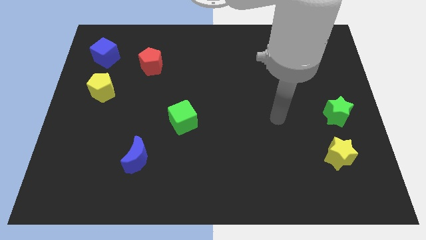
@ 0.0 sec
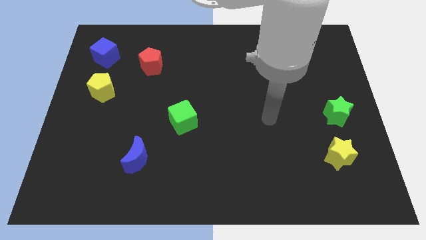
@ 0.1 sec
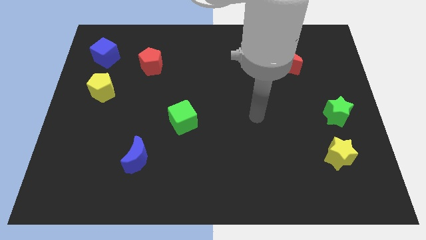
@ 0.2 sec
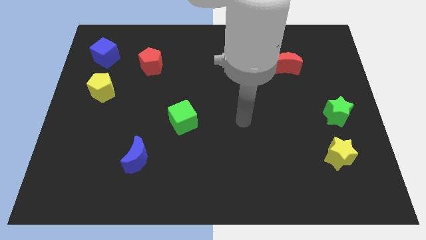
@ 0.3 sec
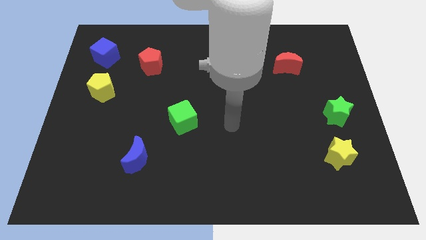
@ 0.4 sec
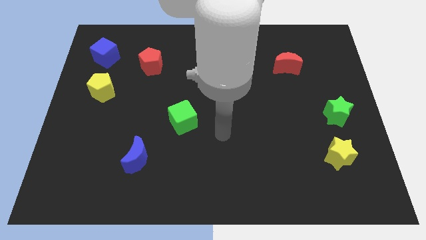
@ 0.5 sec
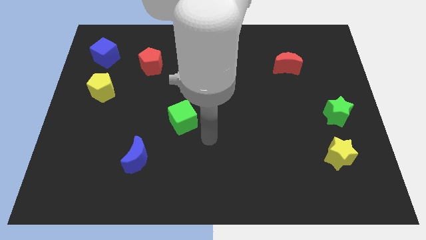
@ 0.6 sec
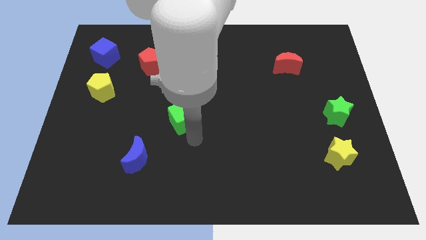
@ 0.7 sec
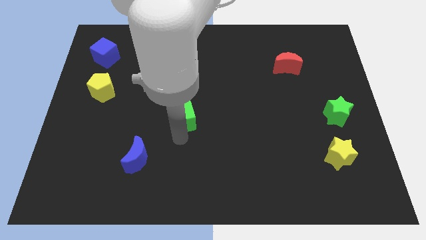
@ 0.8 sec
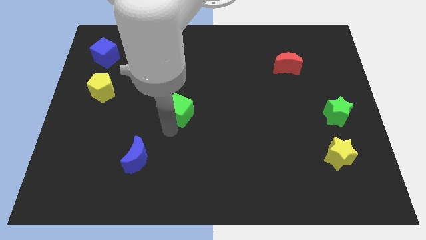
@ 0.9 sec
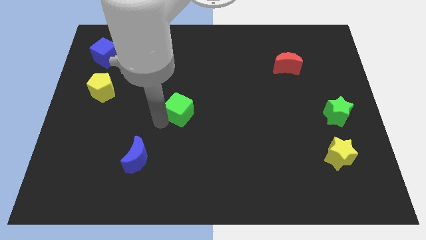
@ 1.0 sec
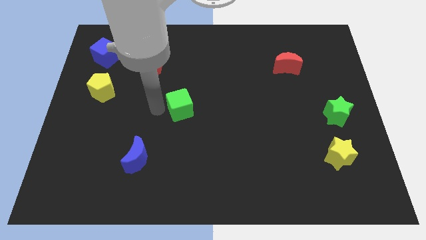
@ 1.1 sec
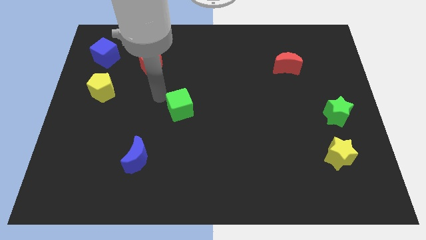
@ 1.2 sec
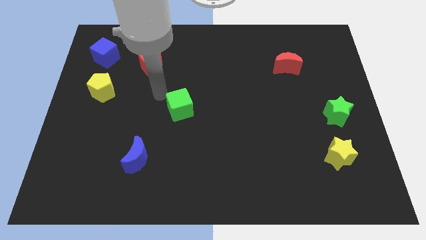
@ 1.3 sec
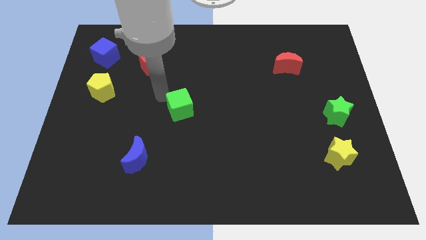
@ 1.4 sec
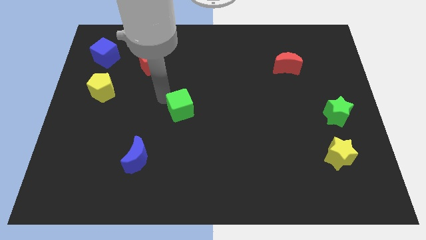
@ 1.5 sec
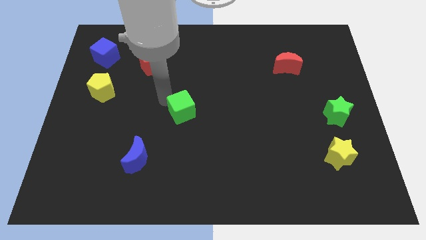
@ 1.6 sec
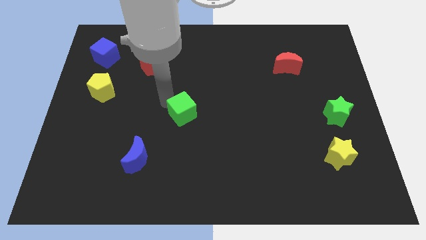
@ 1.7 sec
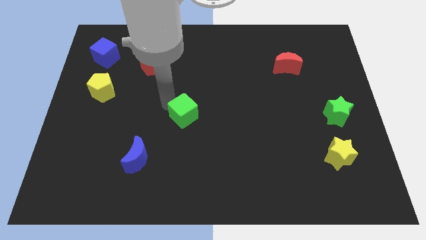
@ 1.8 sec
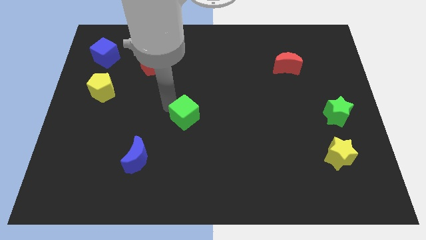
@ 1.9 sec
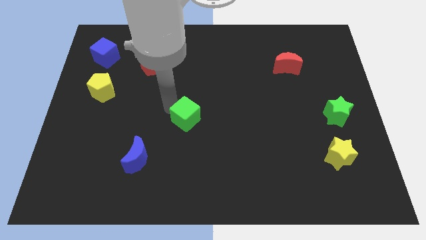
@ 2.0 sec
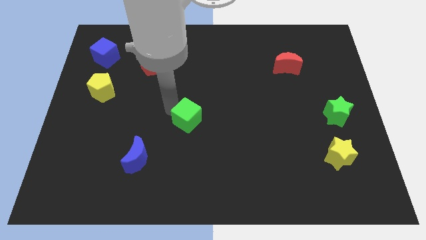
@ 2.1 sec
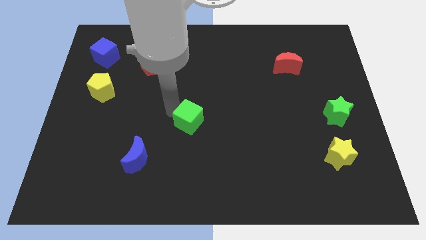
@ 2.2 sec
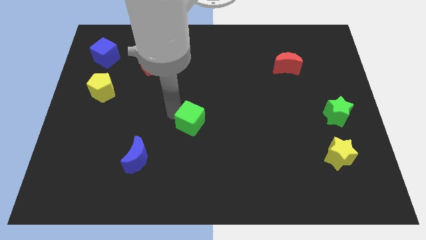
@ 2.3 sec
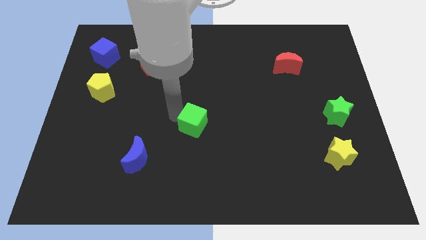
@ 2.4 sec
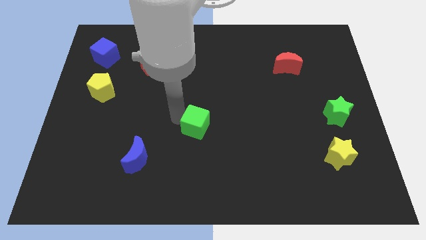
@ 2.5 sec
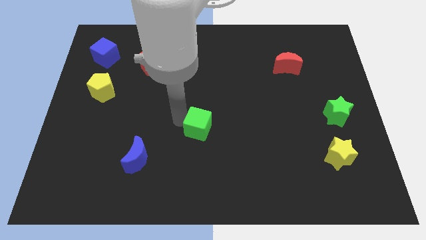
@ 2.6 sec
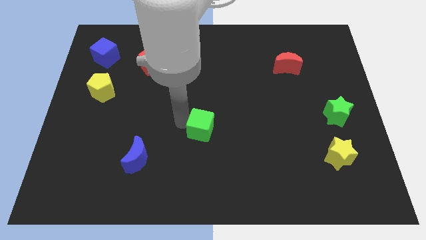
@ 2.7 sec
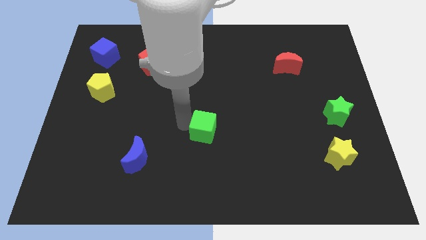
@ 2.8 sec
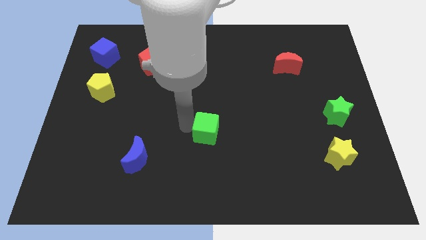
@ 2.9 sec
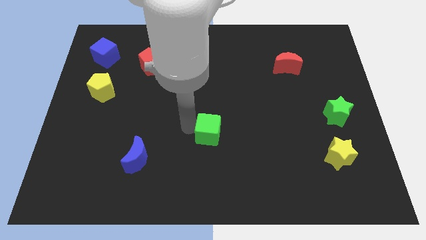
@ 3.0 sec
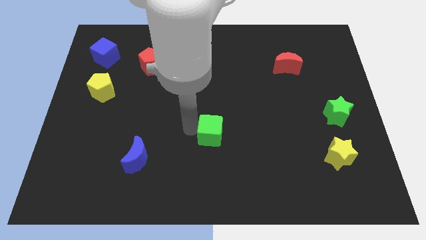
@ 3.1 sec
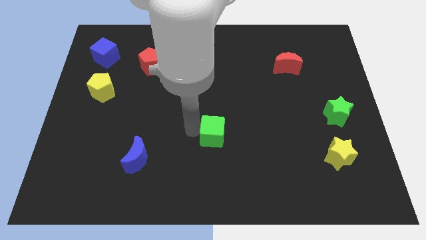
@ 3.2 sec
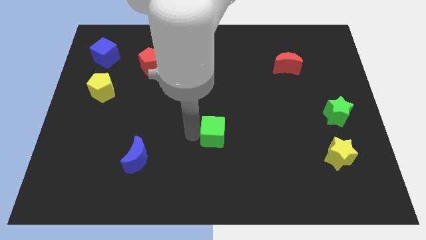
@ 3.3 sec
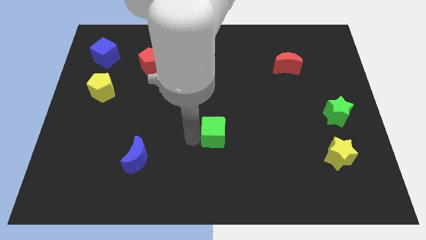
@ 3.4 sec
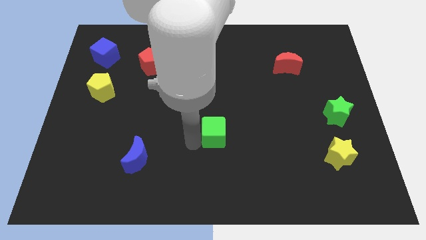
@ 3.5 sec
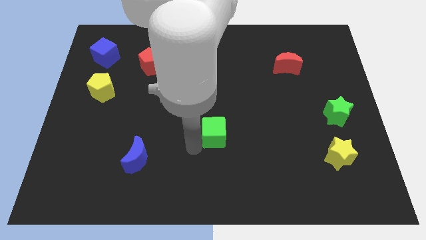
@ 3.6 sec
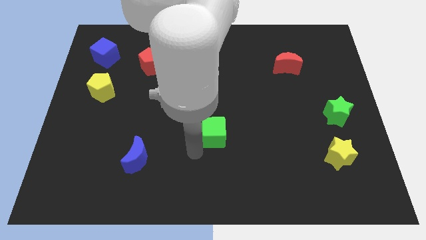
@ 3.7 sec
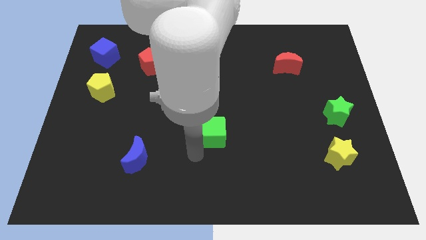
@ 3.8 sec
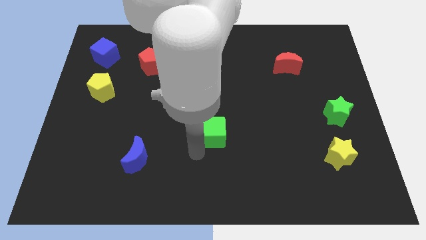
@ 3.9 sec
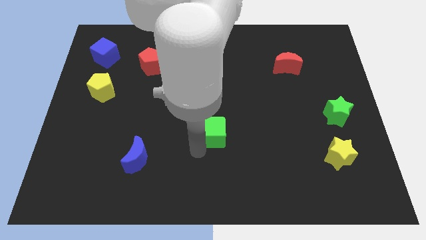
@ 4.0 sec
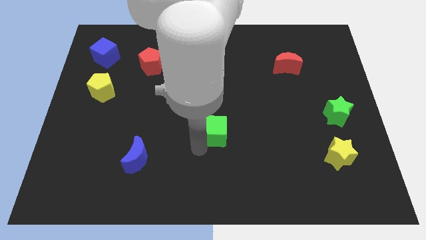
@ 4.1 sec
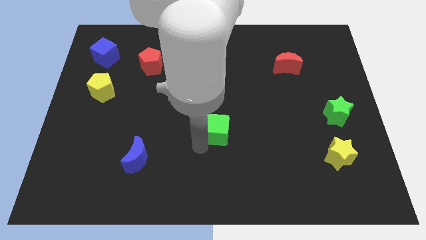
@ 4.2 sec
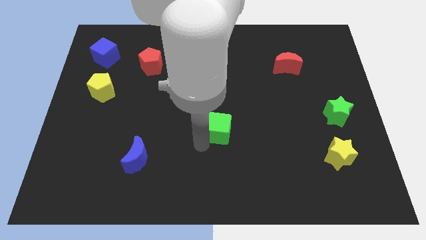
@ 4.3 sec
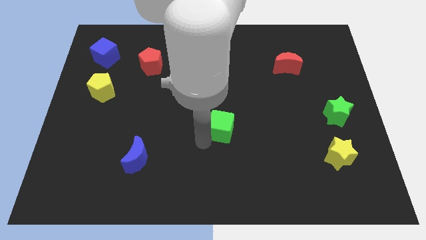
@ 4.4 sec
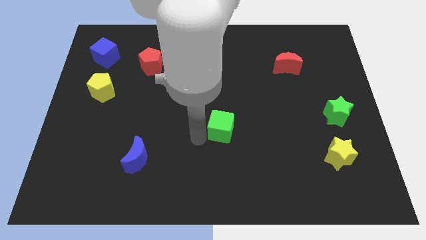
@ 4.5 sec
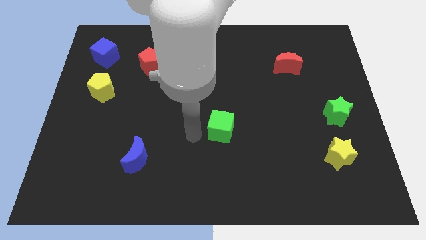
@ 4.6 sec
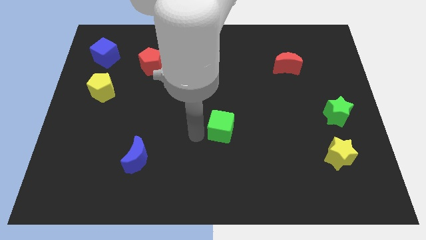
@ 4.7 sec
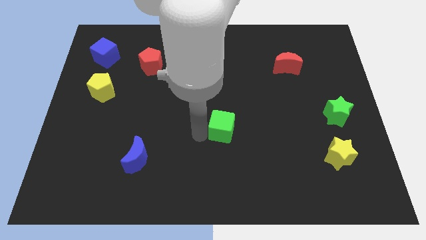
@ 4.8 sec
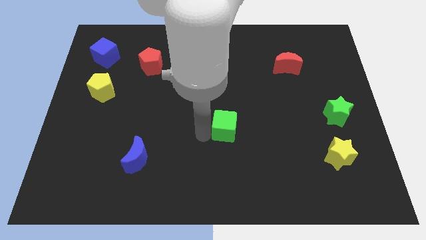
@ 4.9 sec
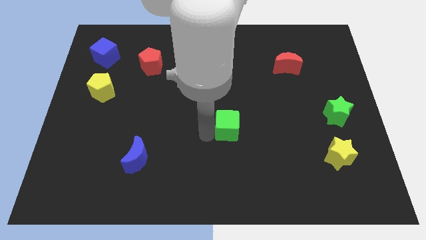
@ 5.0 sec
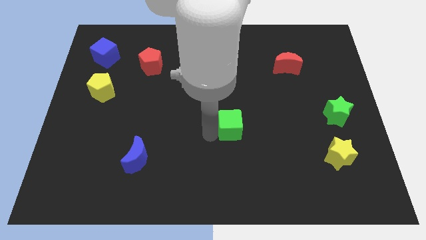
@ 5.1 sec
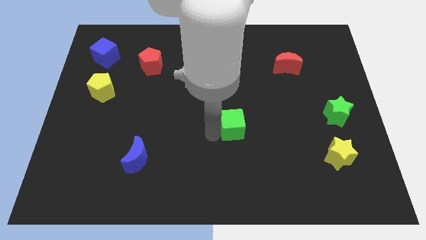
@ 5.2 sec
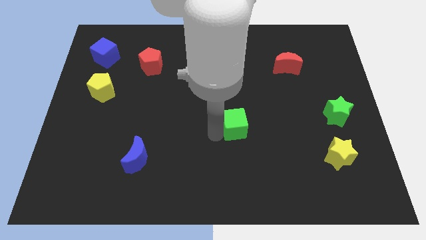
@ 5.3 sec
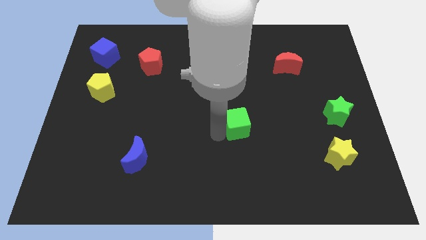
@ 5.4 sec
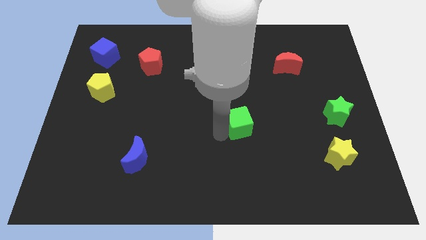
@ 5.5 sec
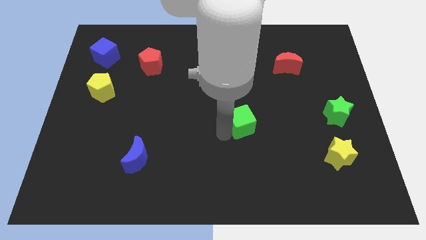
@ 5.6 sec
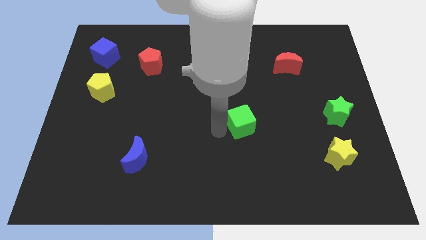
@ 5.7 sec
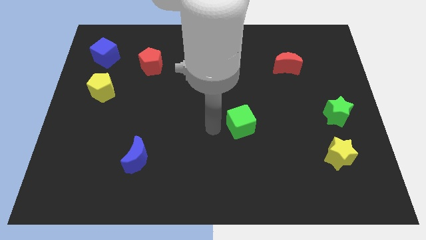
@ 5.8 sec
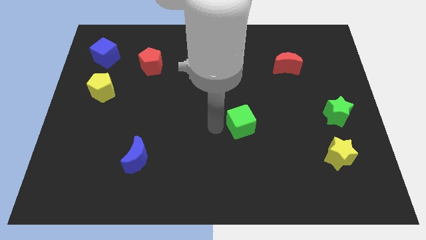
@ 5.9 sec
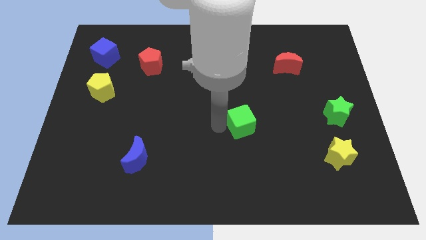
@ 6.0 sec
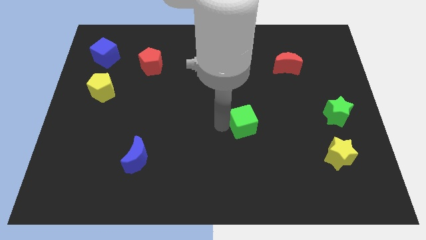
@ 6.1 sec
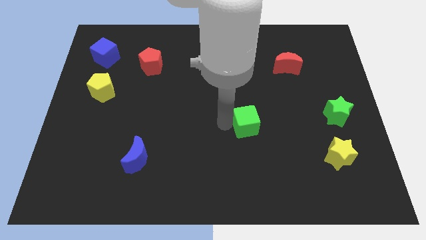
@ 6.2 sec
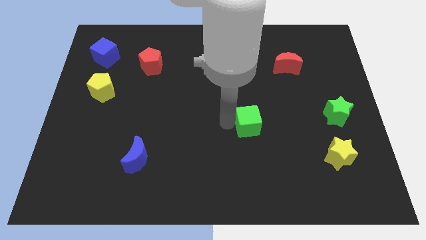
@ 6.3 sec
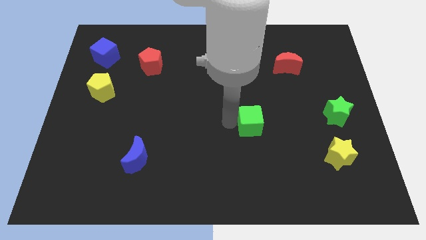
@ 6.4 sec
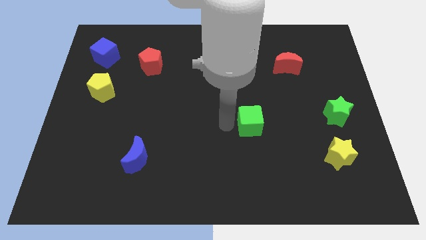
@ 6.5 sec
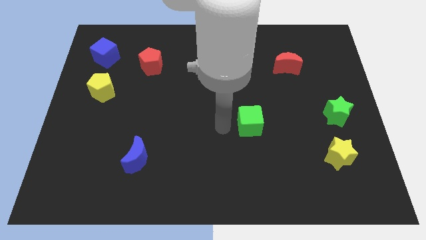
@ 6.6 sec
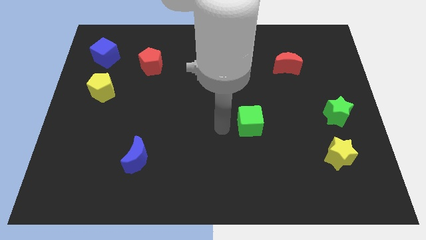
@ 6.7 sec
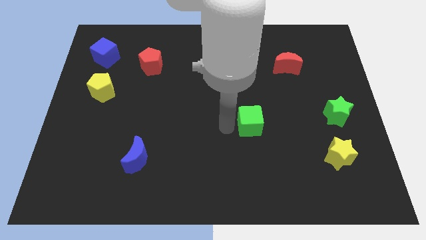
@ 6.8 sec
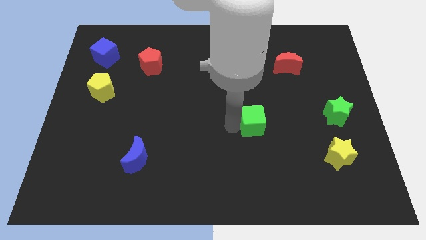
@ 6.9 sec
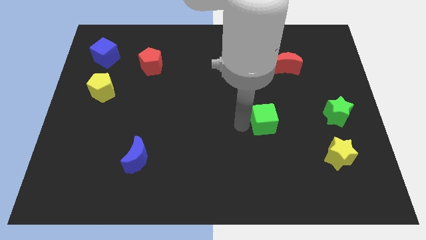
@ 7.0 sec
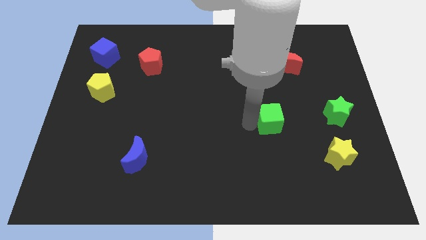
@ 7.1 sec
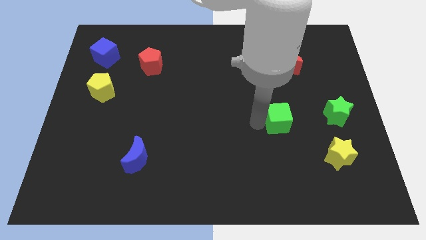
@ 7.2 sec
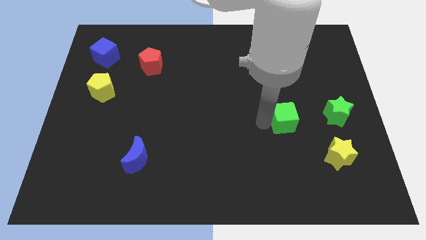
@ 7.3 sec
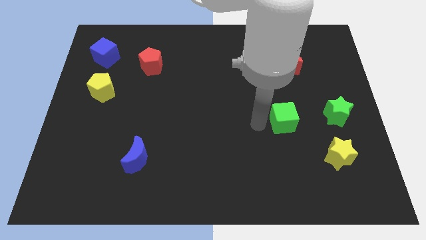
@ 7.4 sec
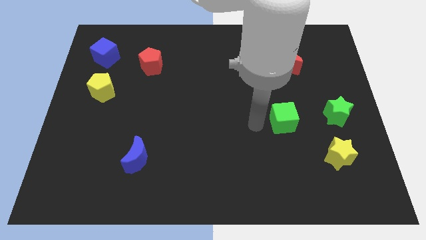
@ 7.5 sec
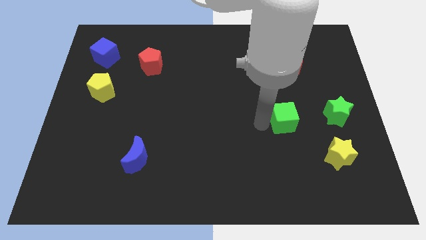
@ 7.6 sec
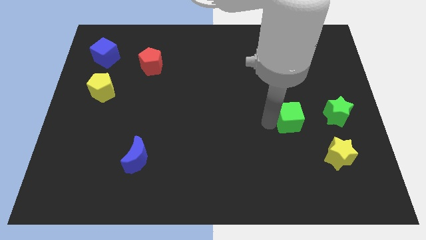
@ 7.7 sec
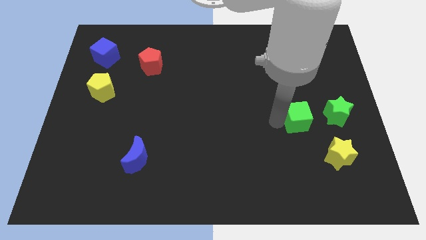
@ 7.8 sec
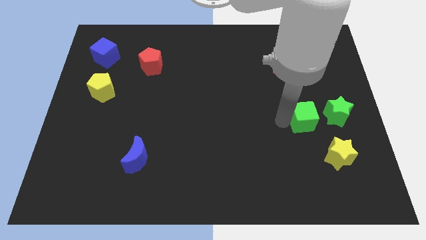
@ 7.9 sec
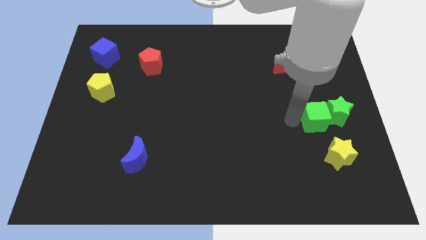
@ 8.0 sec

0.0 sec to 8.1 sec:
push the green cube close to the green star
